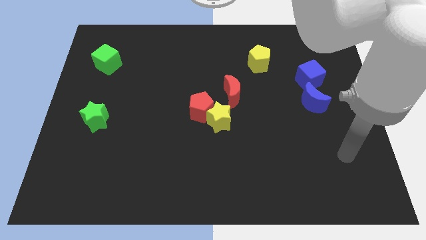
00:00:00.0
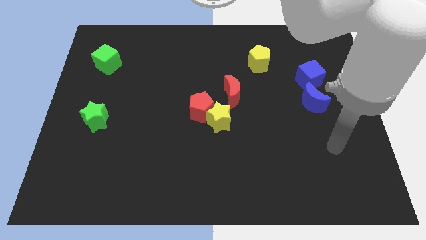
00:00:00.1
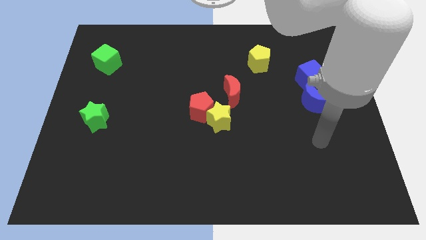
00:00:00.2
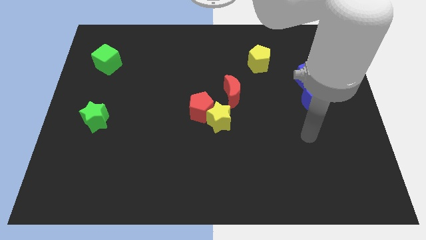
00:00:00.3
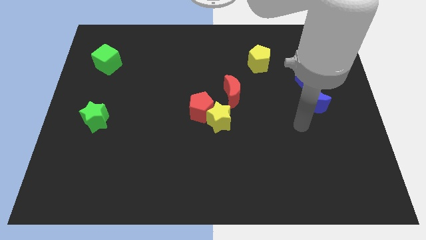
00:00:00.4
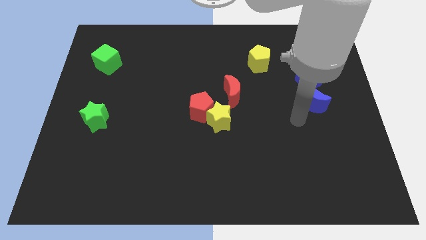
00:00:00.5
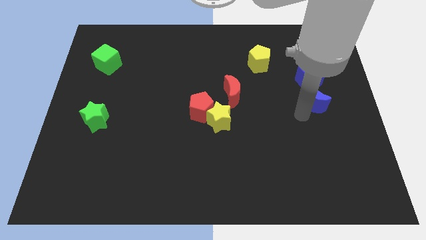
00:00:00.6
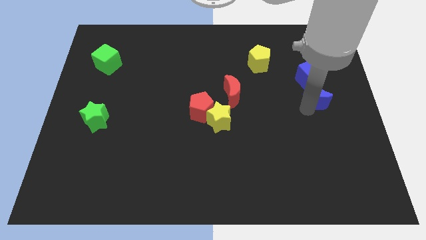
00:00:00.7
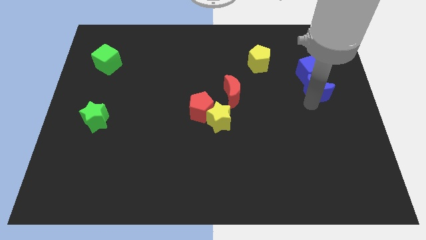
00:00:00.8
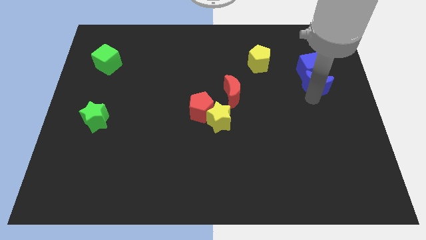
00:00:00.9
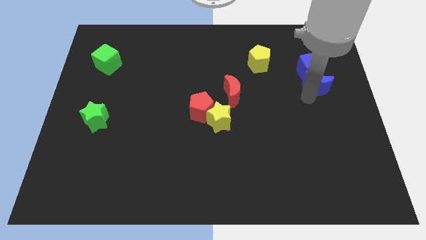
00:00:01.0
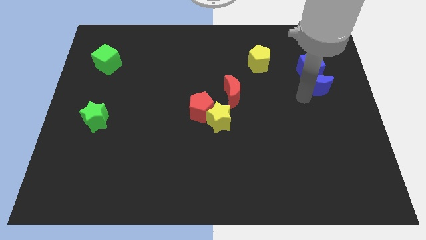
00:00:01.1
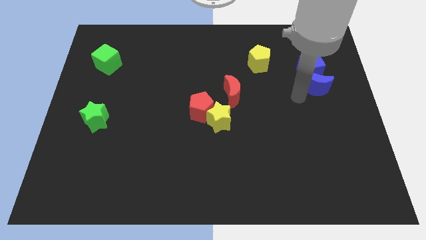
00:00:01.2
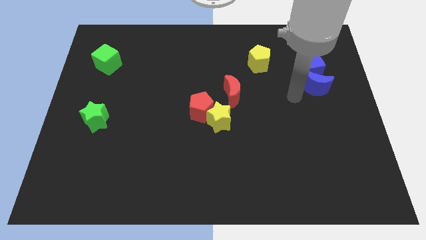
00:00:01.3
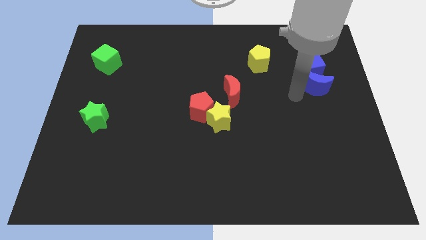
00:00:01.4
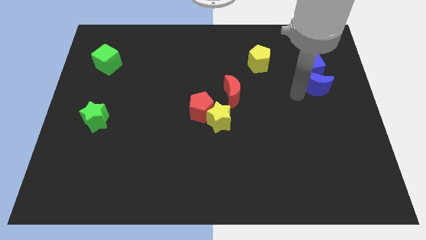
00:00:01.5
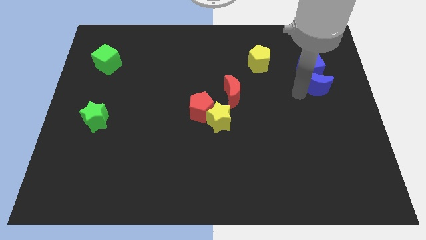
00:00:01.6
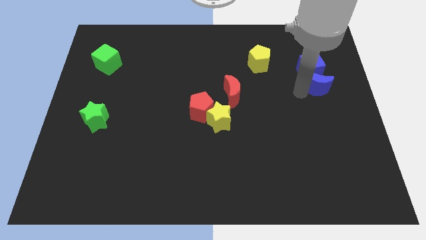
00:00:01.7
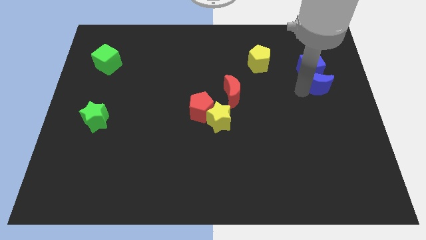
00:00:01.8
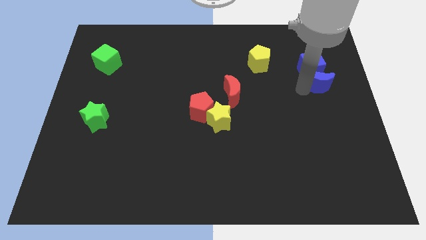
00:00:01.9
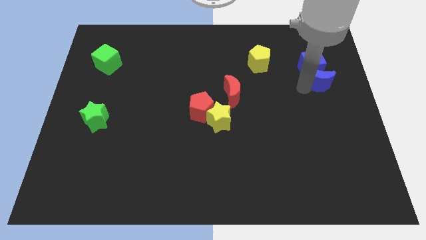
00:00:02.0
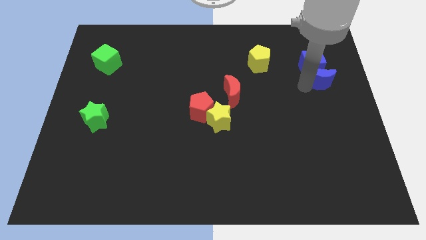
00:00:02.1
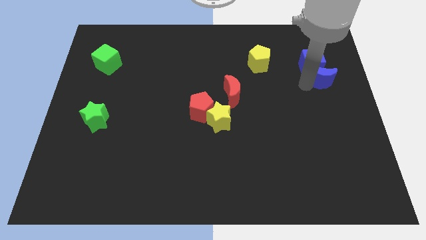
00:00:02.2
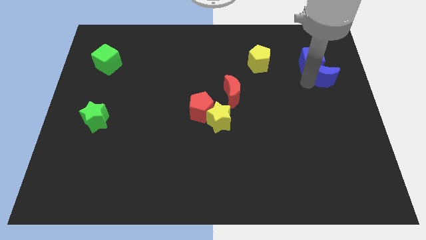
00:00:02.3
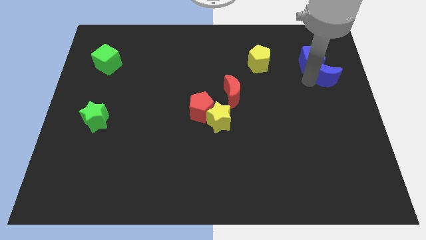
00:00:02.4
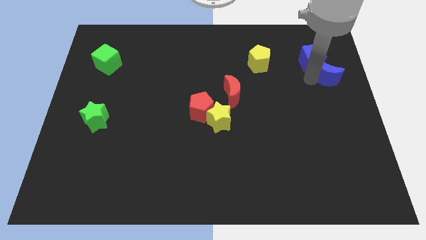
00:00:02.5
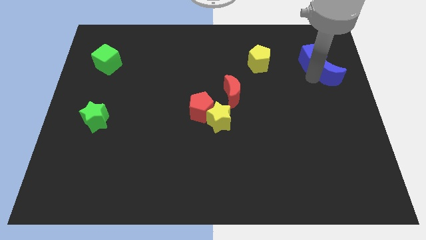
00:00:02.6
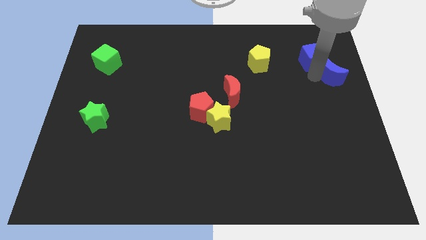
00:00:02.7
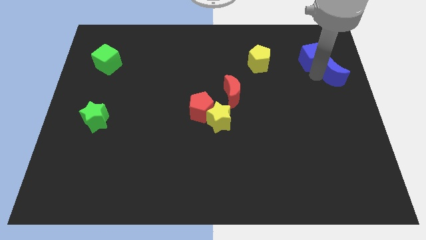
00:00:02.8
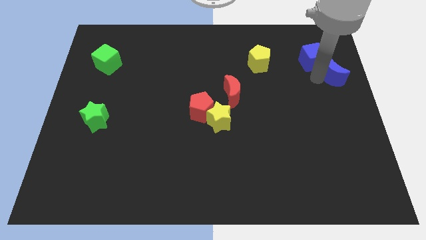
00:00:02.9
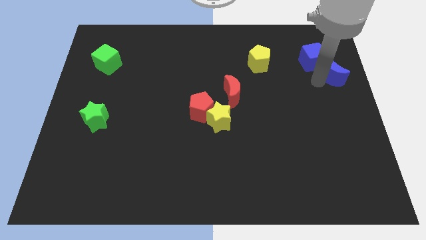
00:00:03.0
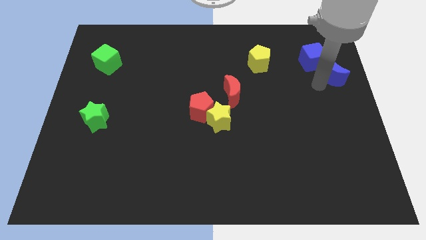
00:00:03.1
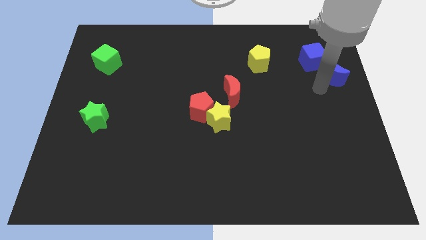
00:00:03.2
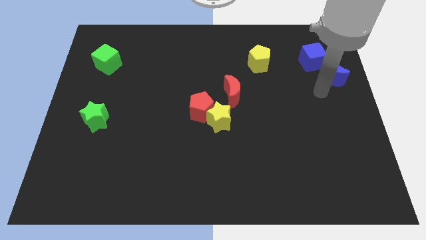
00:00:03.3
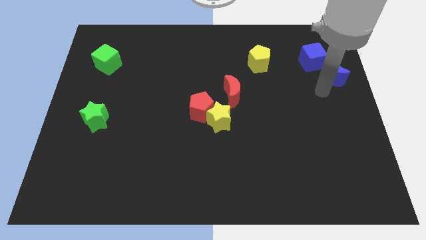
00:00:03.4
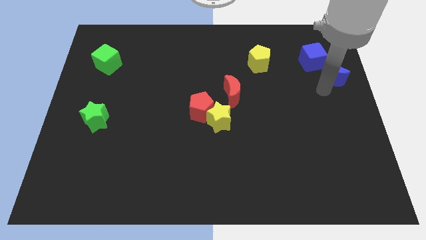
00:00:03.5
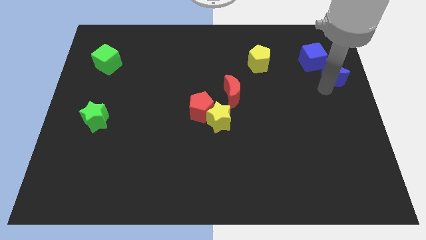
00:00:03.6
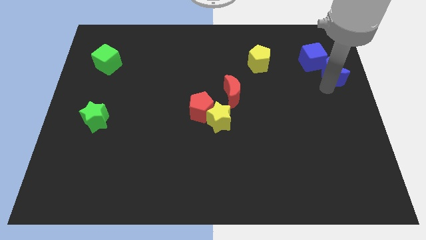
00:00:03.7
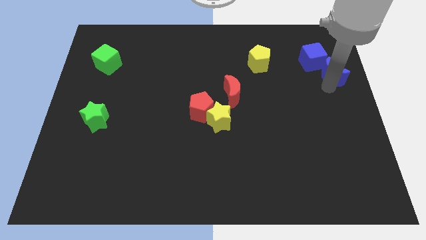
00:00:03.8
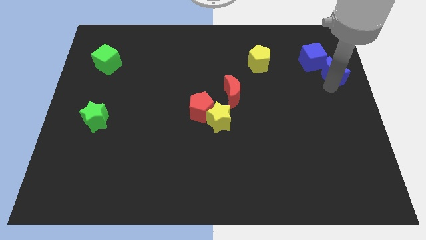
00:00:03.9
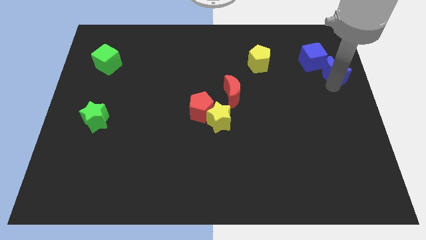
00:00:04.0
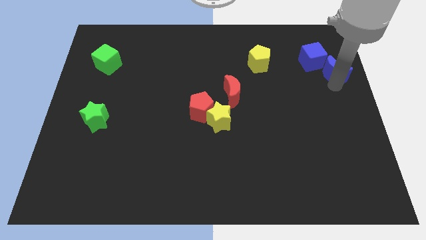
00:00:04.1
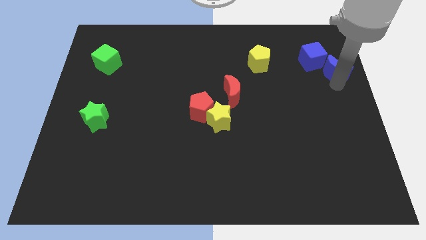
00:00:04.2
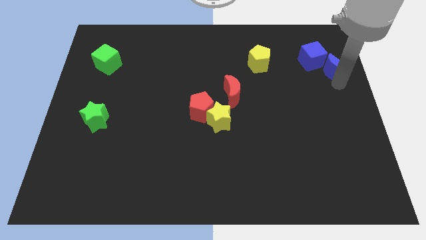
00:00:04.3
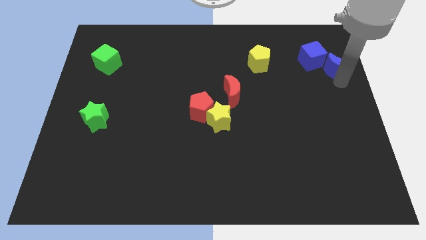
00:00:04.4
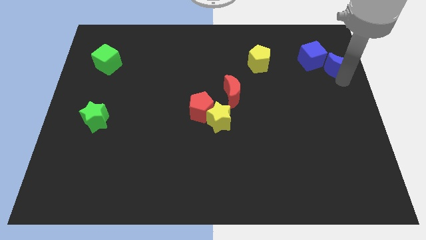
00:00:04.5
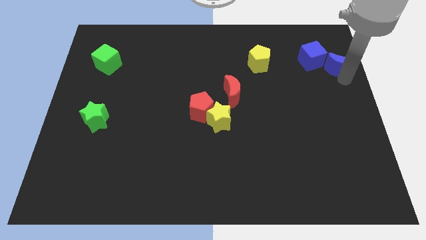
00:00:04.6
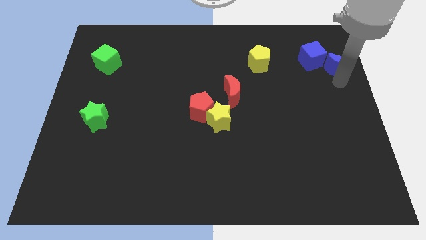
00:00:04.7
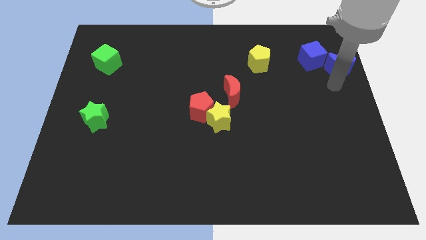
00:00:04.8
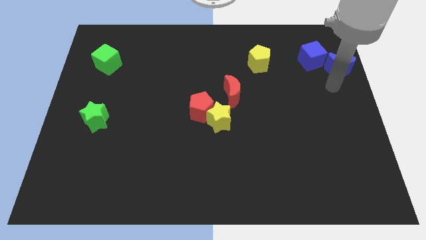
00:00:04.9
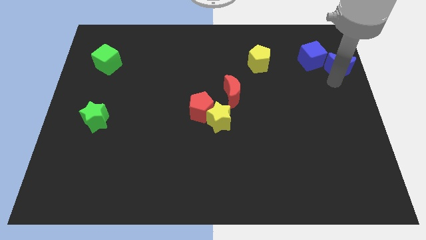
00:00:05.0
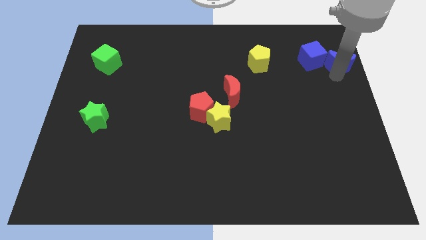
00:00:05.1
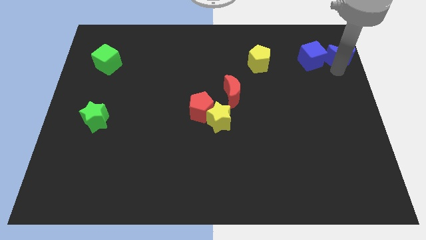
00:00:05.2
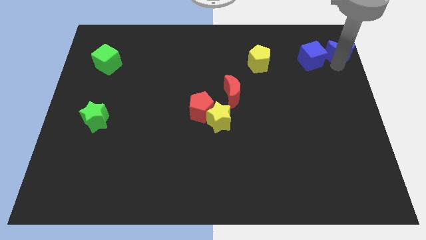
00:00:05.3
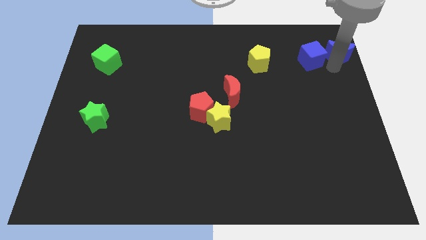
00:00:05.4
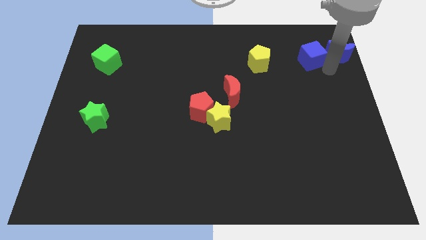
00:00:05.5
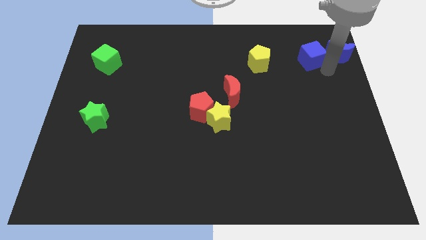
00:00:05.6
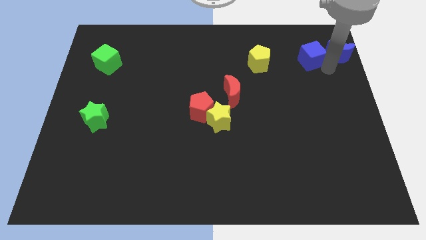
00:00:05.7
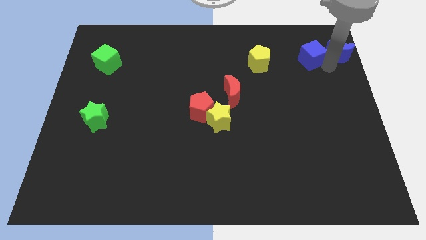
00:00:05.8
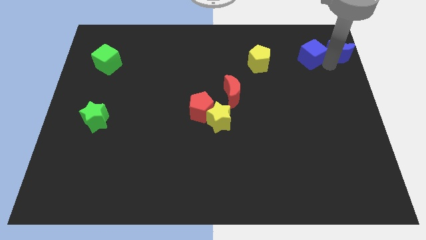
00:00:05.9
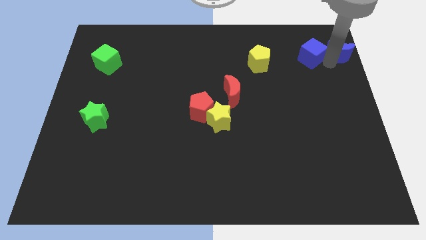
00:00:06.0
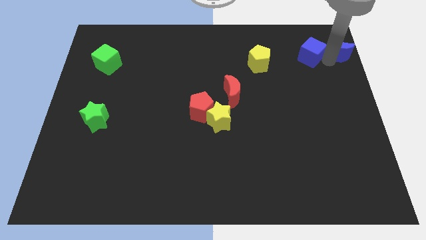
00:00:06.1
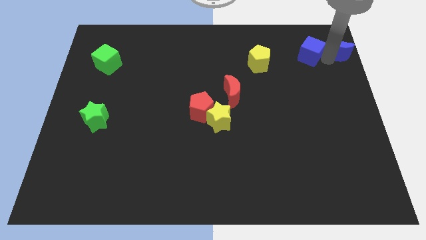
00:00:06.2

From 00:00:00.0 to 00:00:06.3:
slide the blue moon to the top right of the board

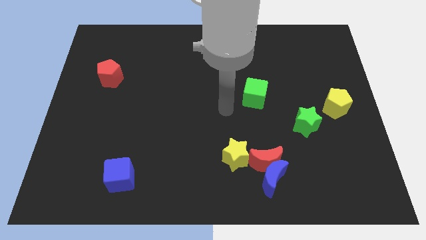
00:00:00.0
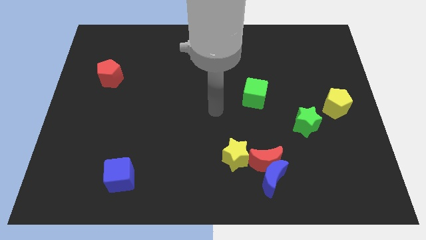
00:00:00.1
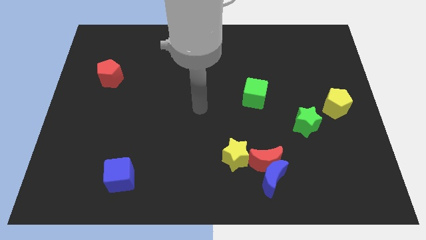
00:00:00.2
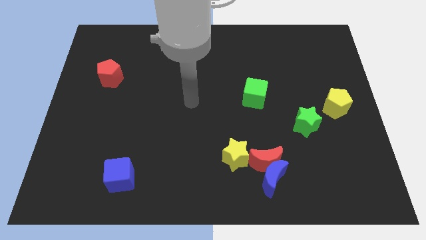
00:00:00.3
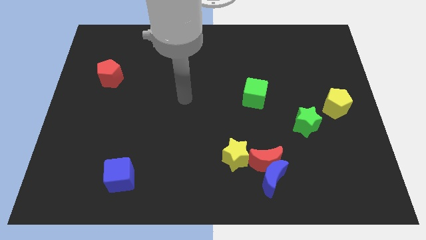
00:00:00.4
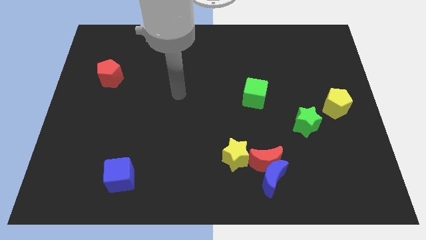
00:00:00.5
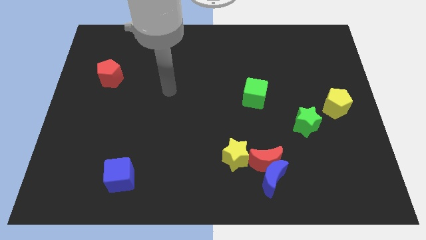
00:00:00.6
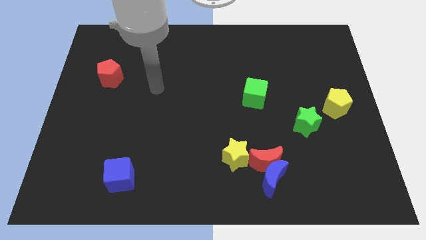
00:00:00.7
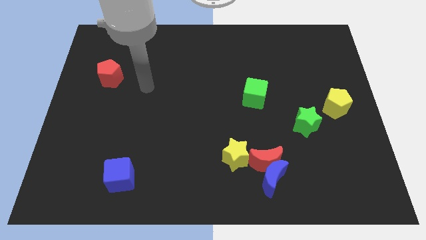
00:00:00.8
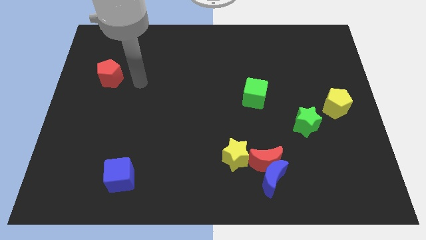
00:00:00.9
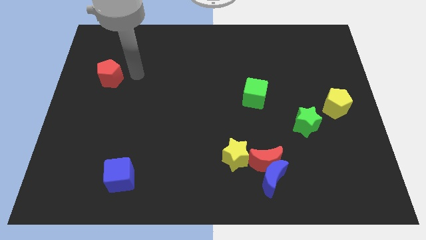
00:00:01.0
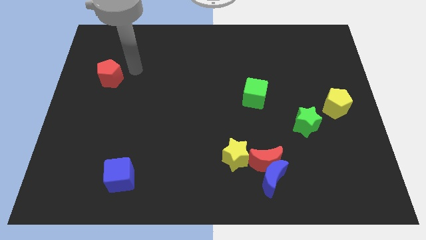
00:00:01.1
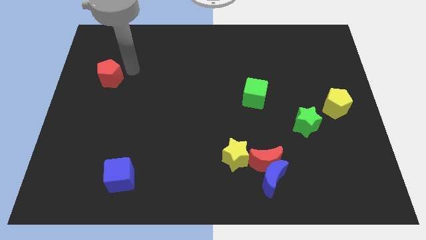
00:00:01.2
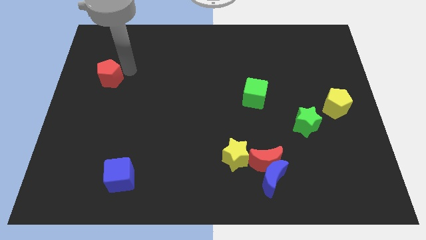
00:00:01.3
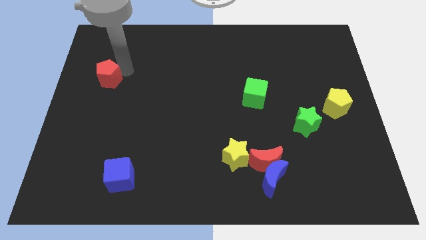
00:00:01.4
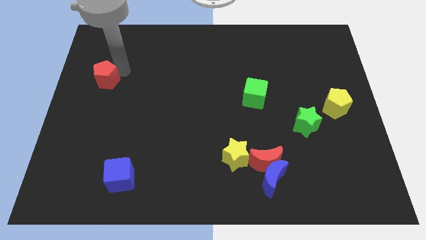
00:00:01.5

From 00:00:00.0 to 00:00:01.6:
push the red pentagon to the left side of the board
